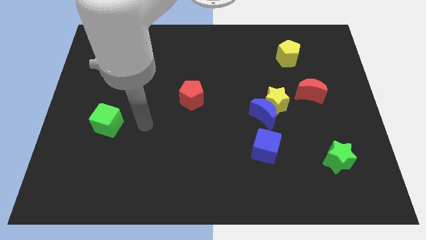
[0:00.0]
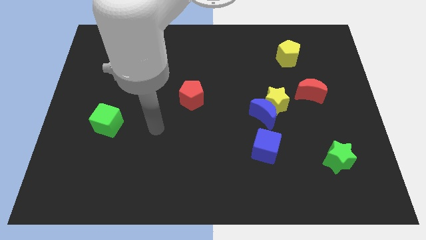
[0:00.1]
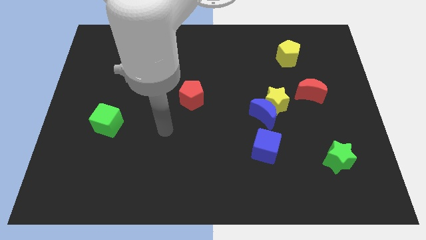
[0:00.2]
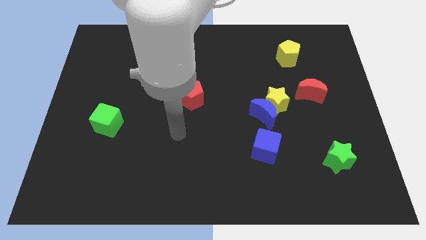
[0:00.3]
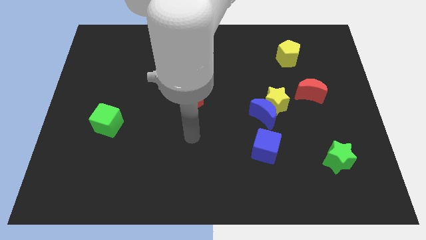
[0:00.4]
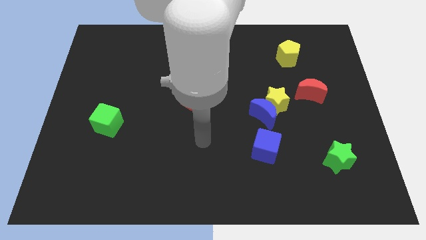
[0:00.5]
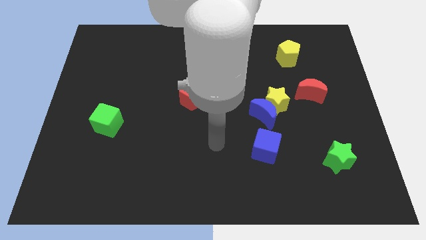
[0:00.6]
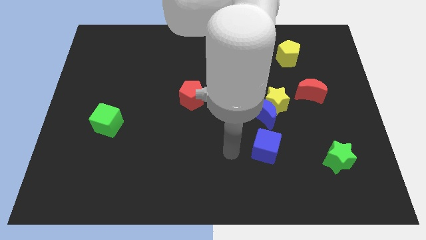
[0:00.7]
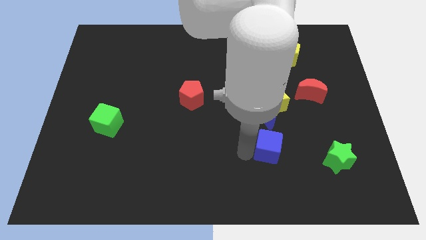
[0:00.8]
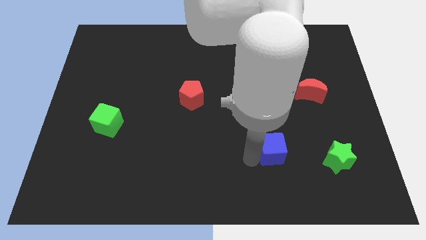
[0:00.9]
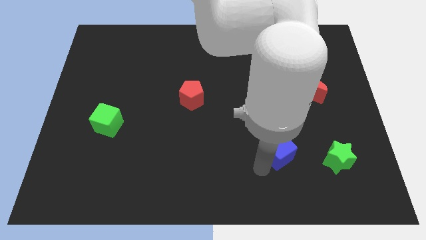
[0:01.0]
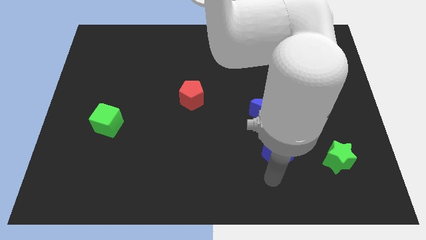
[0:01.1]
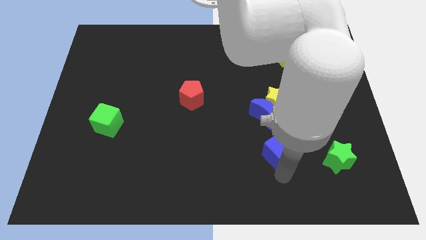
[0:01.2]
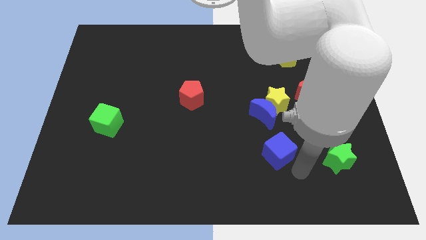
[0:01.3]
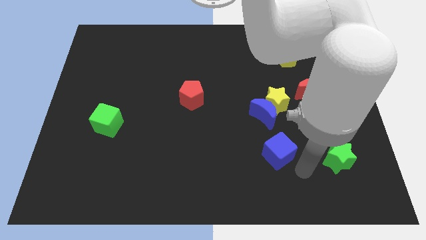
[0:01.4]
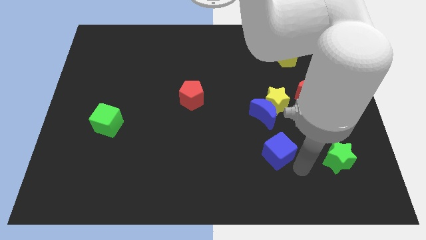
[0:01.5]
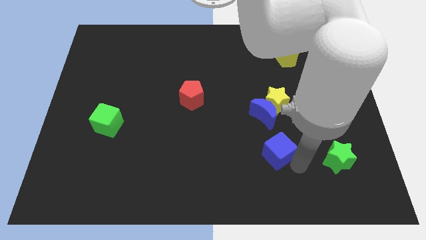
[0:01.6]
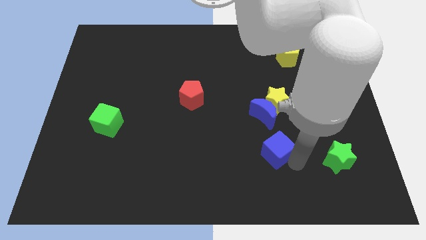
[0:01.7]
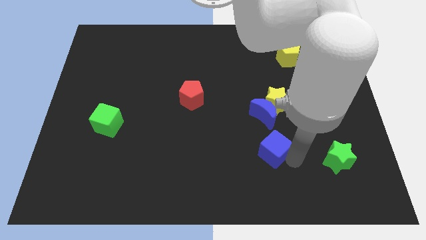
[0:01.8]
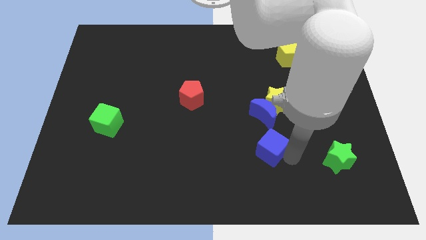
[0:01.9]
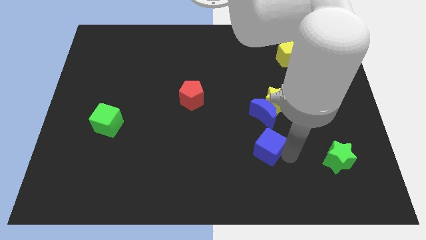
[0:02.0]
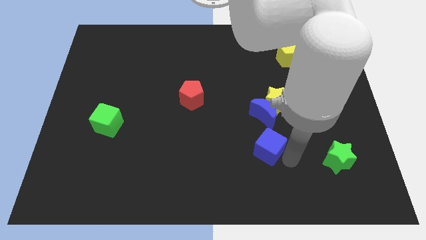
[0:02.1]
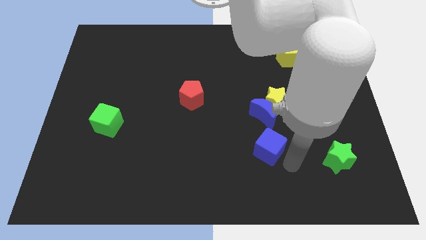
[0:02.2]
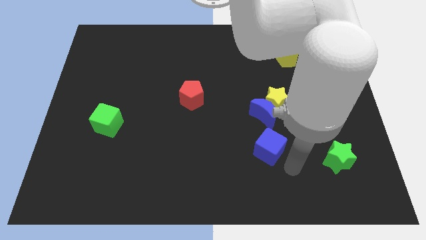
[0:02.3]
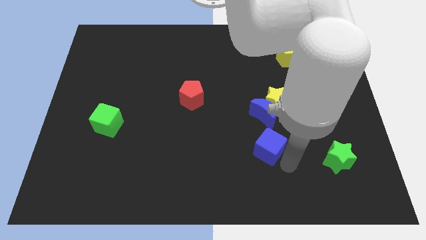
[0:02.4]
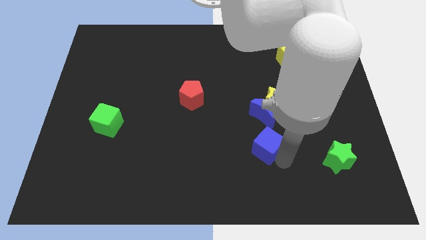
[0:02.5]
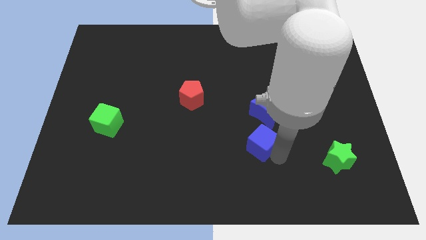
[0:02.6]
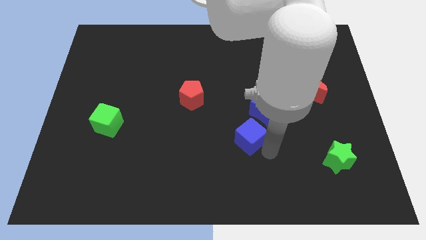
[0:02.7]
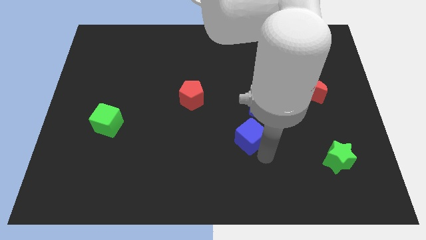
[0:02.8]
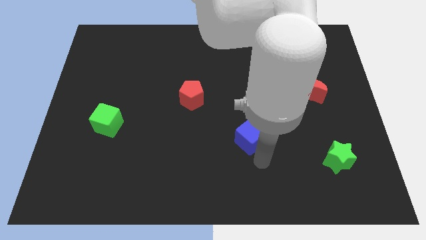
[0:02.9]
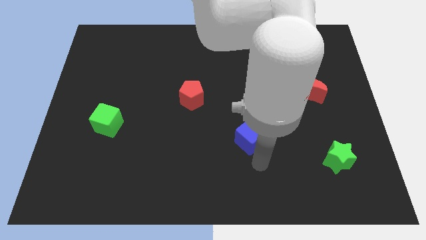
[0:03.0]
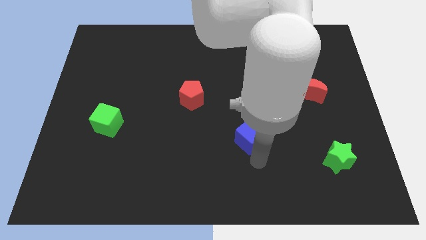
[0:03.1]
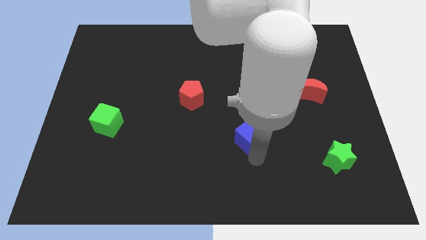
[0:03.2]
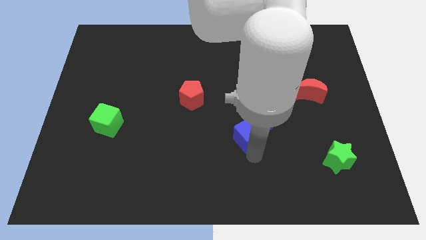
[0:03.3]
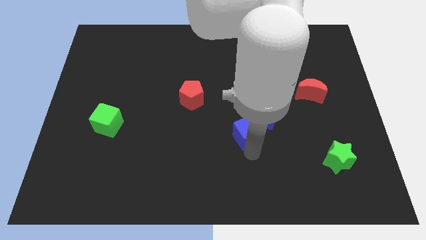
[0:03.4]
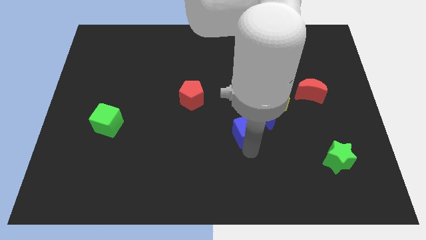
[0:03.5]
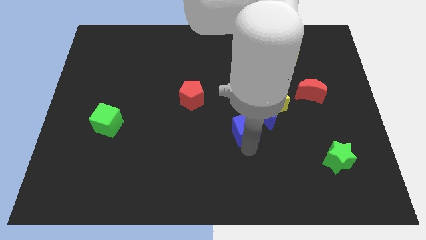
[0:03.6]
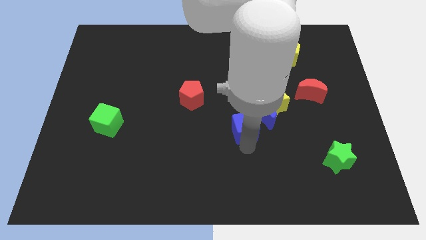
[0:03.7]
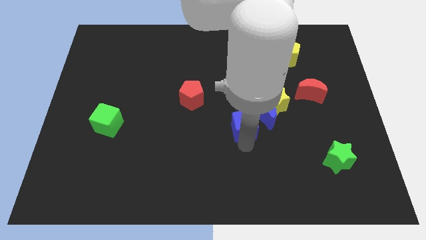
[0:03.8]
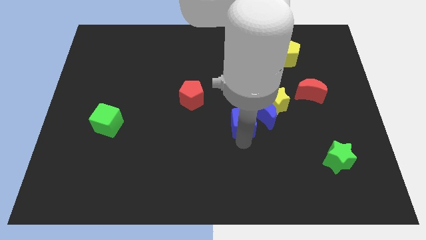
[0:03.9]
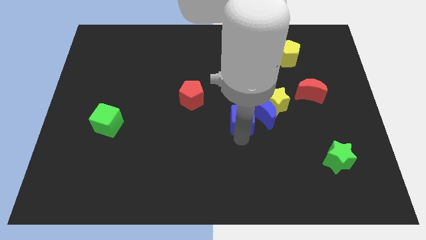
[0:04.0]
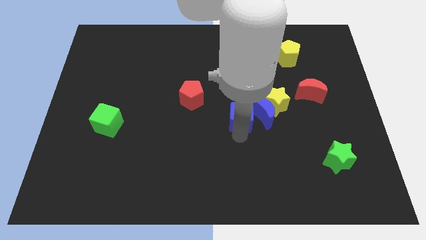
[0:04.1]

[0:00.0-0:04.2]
move the blue cube slightly up

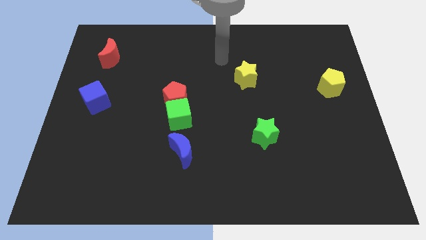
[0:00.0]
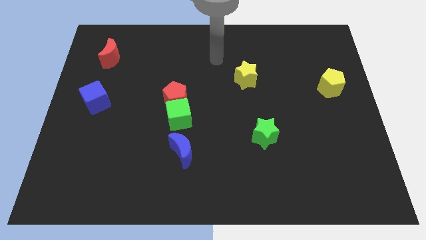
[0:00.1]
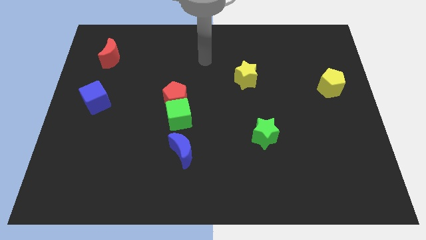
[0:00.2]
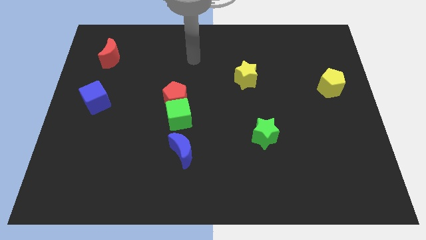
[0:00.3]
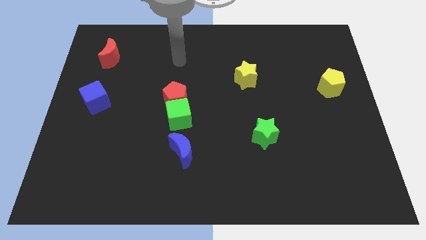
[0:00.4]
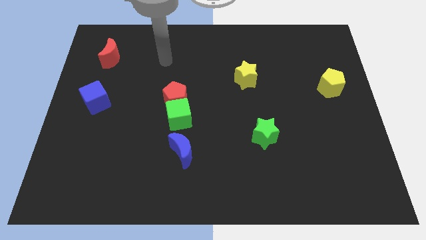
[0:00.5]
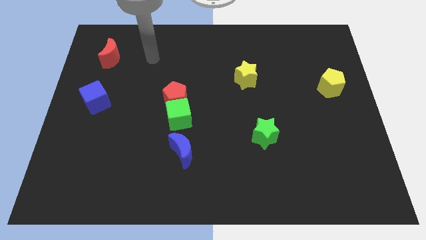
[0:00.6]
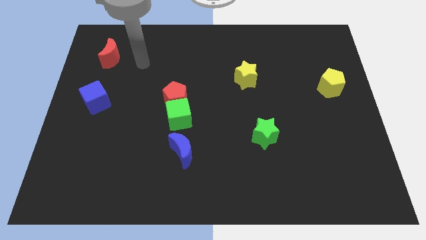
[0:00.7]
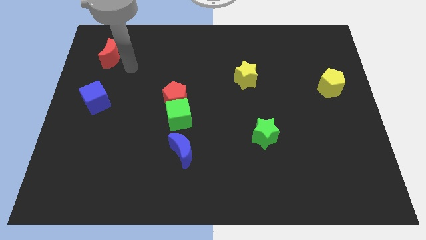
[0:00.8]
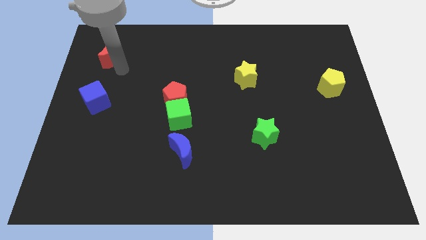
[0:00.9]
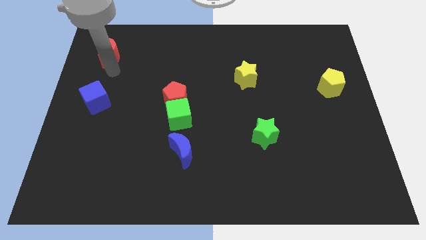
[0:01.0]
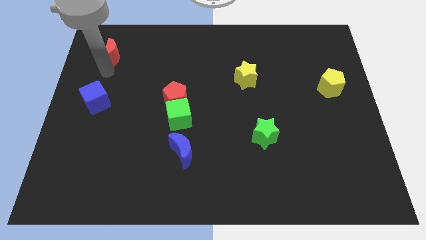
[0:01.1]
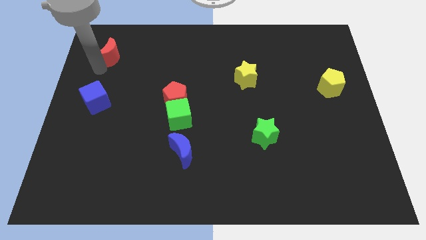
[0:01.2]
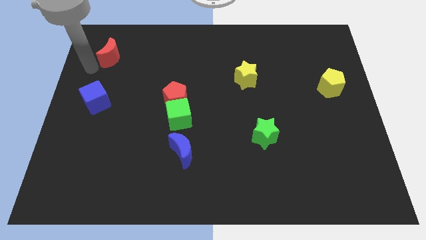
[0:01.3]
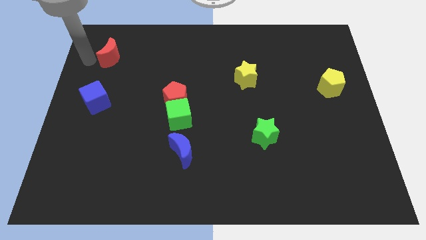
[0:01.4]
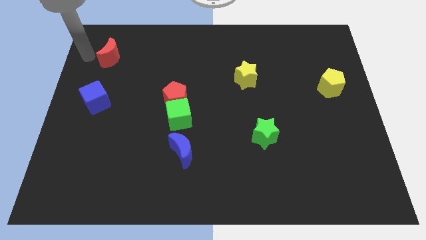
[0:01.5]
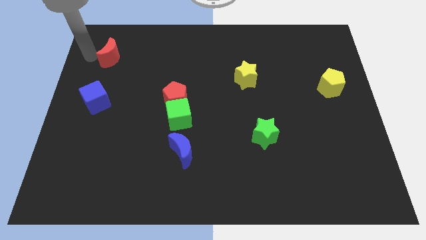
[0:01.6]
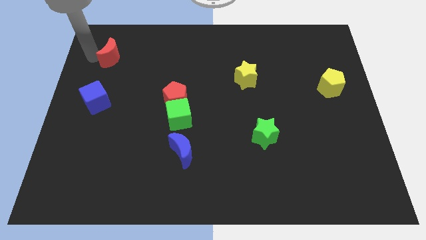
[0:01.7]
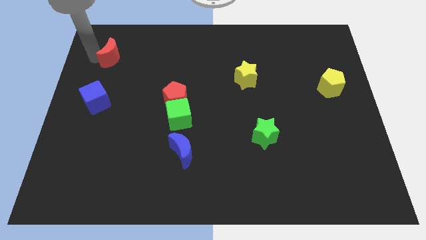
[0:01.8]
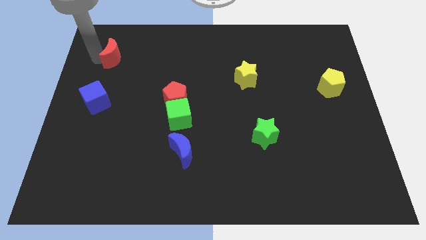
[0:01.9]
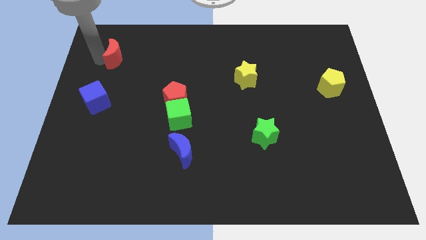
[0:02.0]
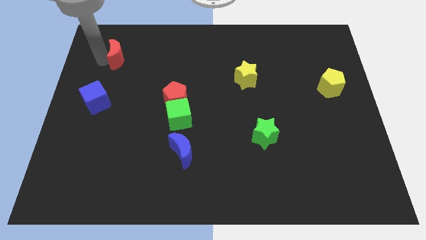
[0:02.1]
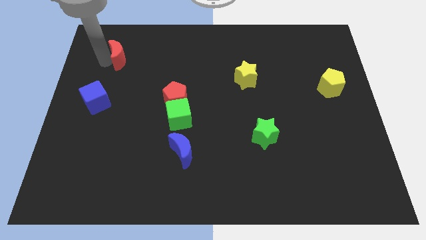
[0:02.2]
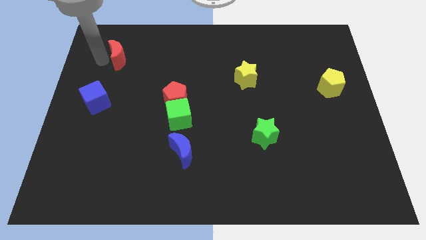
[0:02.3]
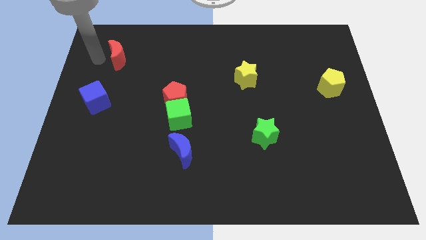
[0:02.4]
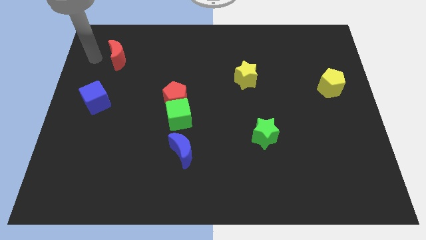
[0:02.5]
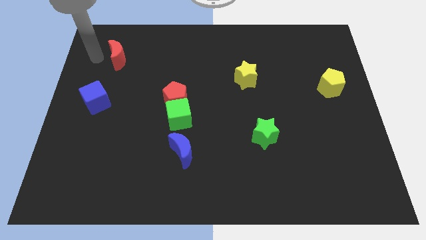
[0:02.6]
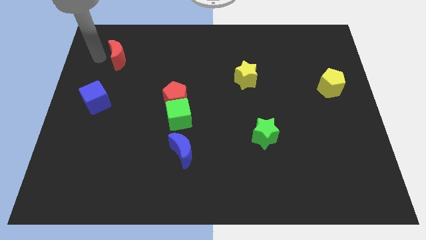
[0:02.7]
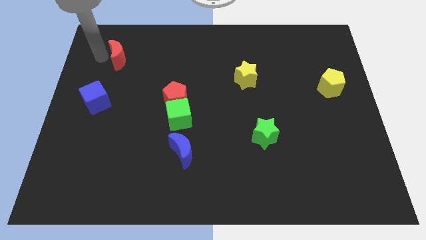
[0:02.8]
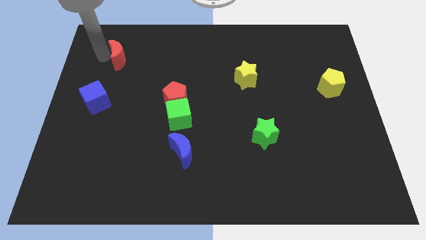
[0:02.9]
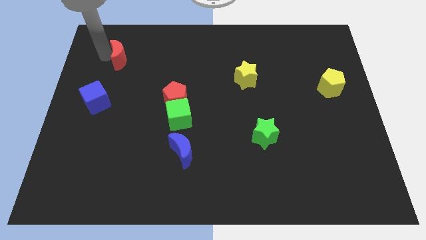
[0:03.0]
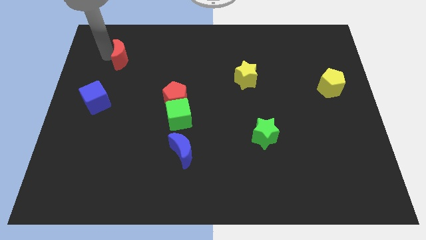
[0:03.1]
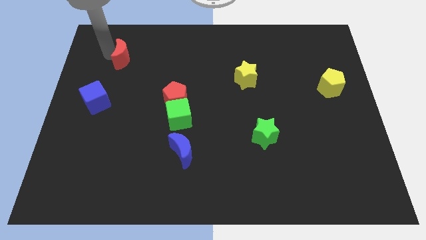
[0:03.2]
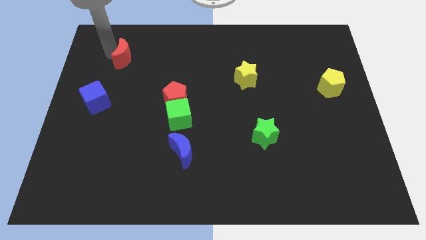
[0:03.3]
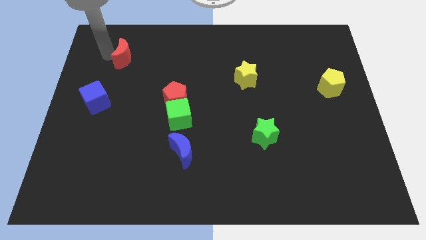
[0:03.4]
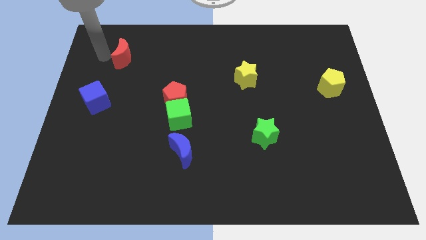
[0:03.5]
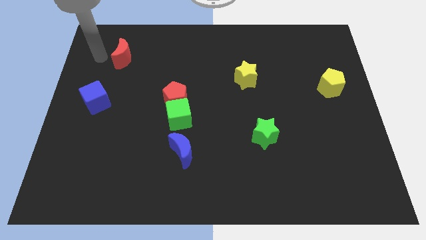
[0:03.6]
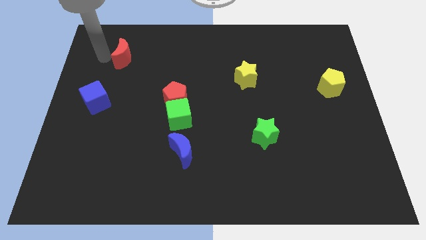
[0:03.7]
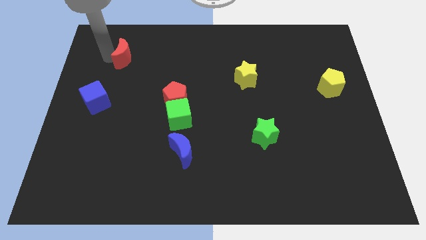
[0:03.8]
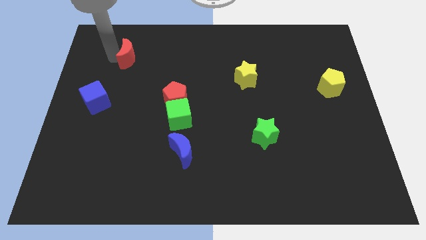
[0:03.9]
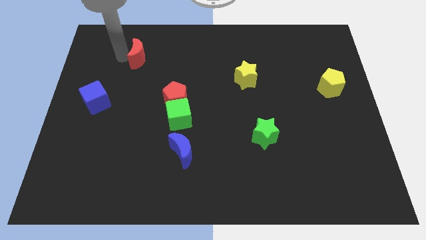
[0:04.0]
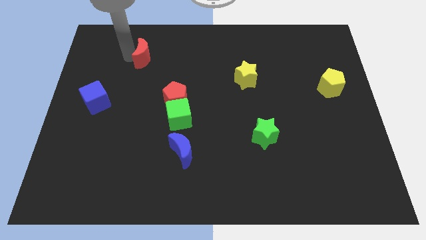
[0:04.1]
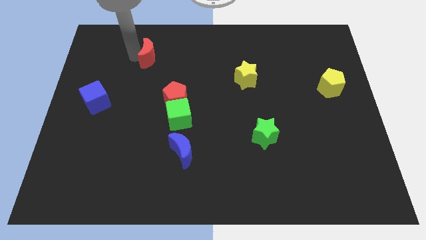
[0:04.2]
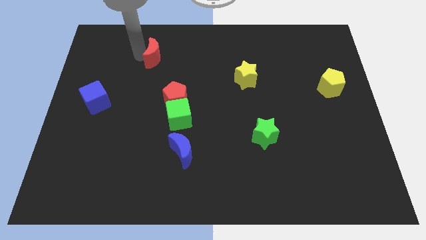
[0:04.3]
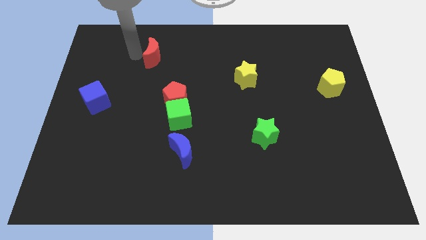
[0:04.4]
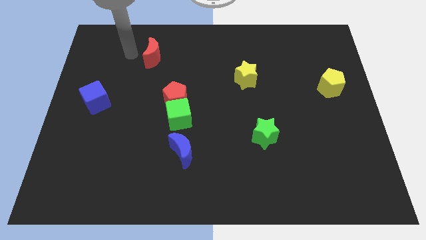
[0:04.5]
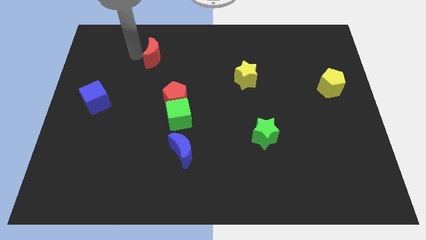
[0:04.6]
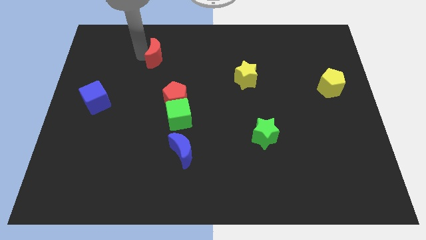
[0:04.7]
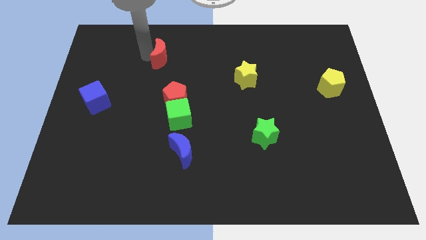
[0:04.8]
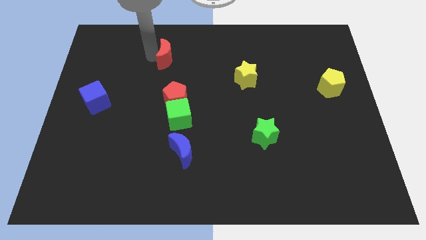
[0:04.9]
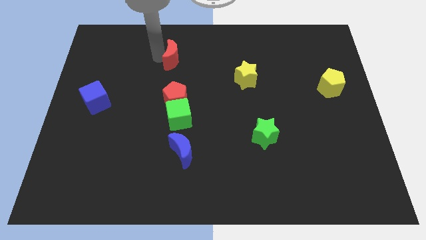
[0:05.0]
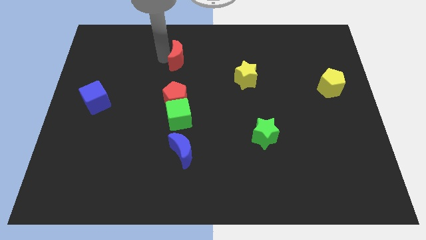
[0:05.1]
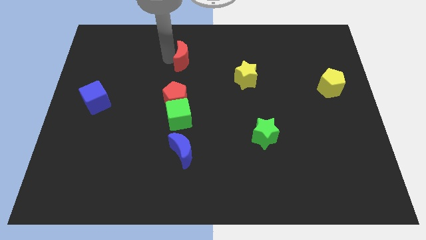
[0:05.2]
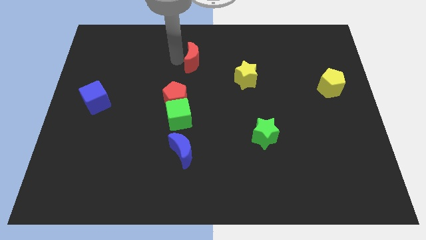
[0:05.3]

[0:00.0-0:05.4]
slide the red moon to the right
